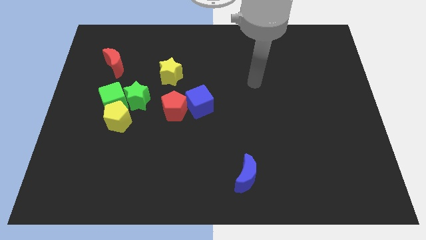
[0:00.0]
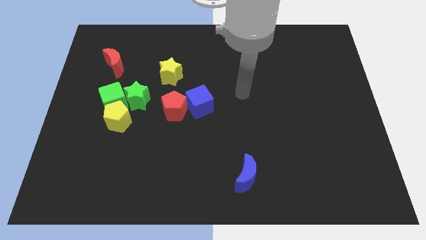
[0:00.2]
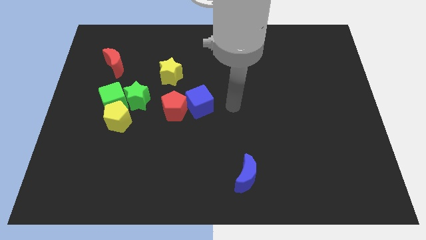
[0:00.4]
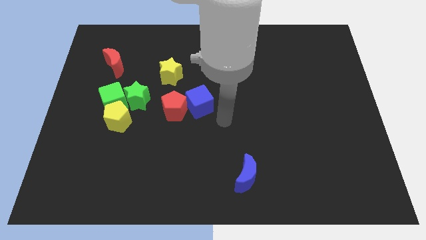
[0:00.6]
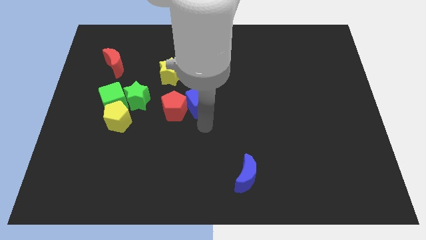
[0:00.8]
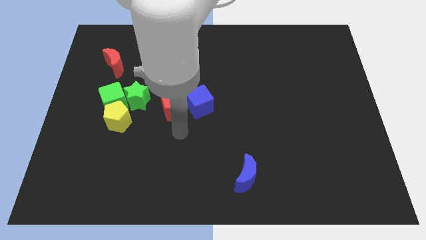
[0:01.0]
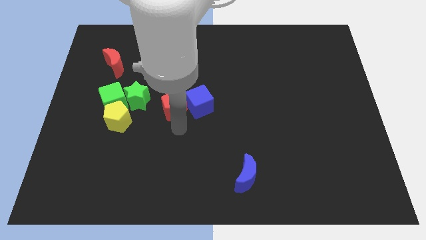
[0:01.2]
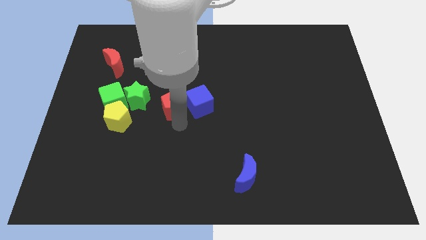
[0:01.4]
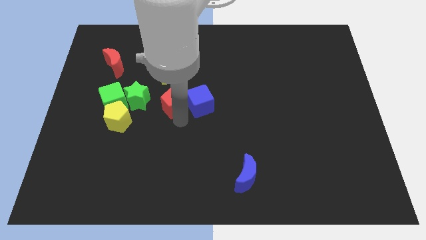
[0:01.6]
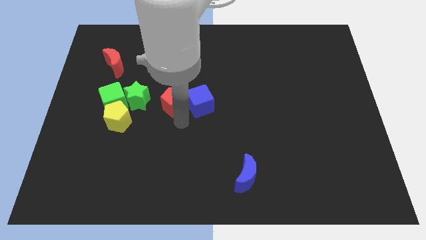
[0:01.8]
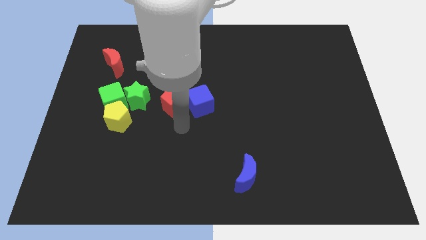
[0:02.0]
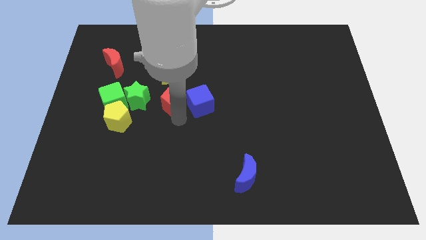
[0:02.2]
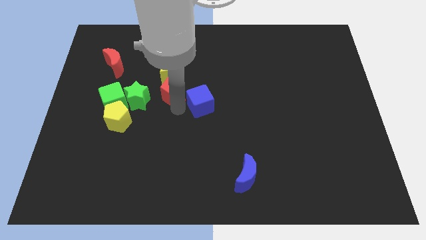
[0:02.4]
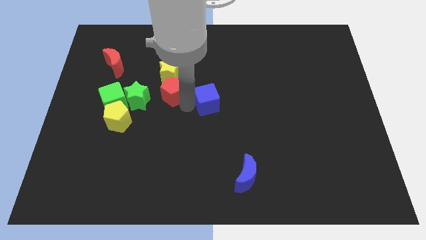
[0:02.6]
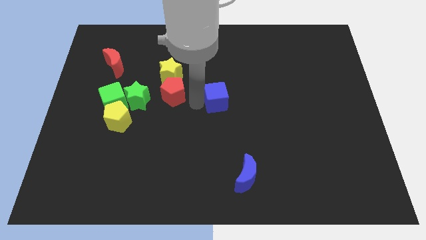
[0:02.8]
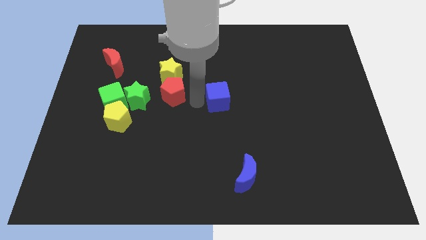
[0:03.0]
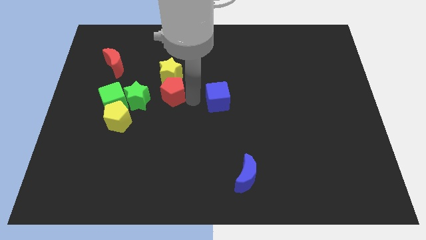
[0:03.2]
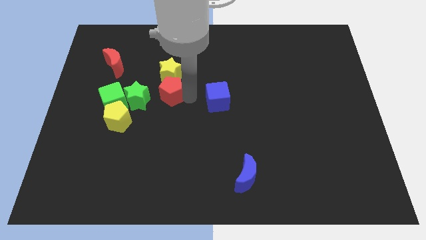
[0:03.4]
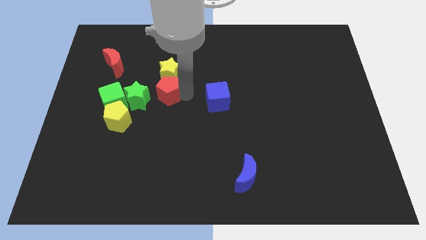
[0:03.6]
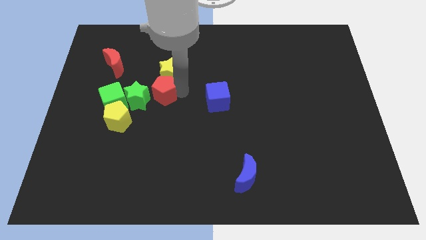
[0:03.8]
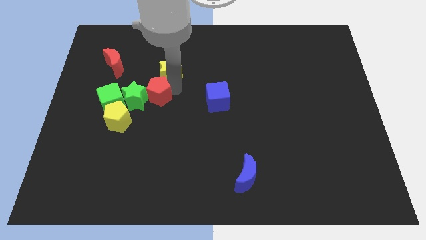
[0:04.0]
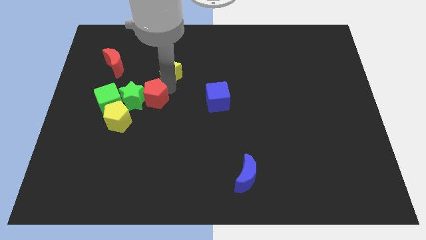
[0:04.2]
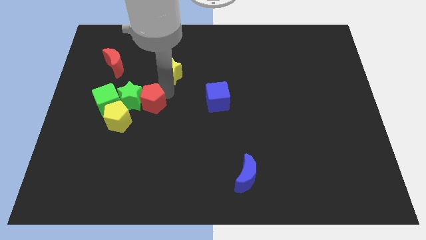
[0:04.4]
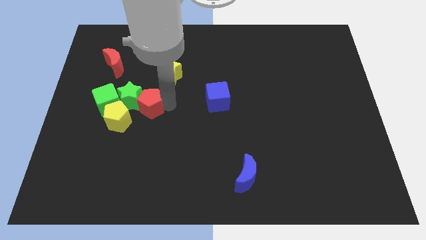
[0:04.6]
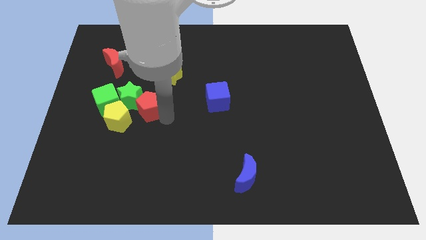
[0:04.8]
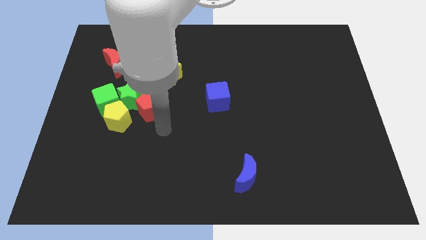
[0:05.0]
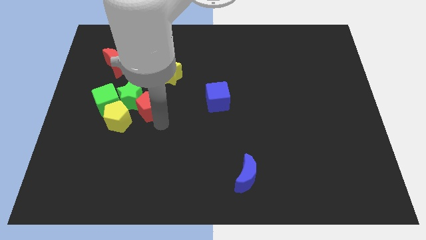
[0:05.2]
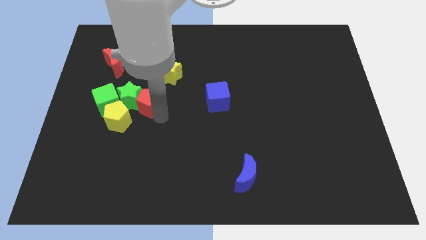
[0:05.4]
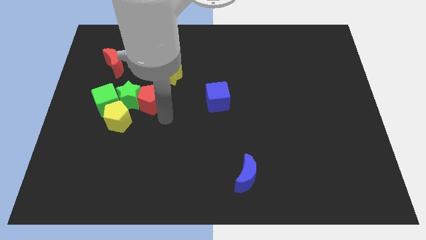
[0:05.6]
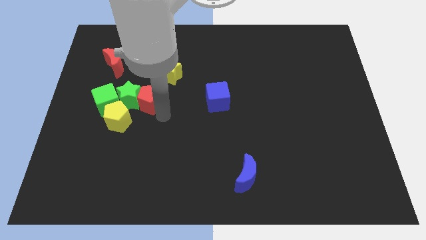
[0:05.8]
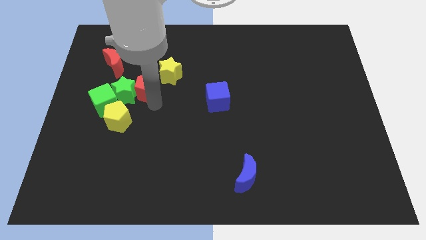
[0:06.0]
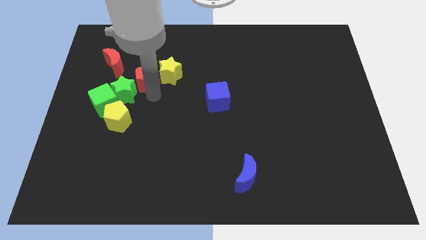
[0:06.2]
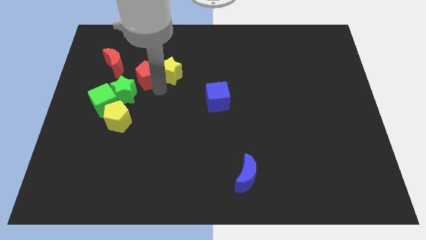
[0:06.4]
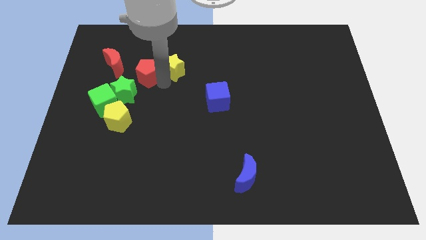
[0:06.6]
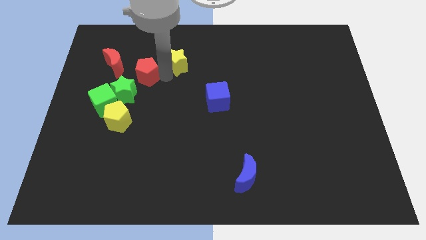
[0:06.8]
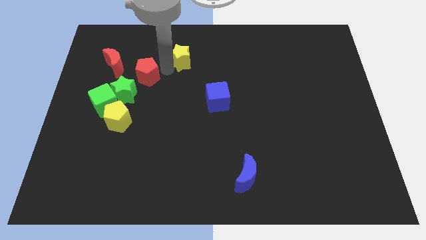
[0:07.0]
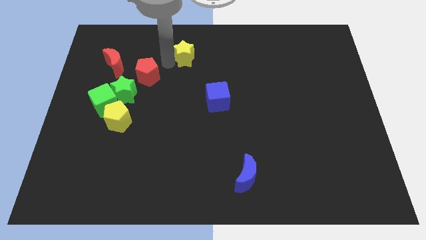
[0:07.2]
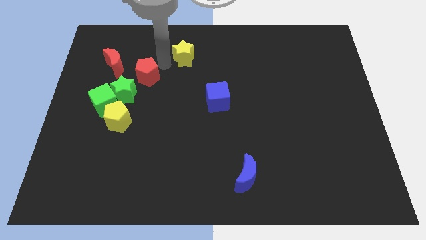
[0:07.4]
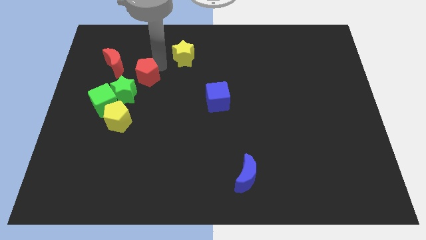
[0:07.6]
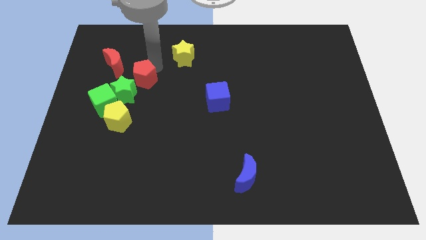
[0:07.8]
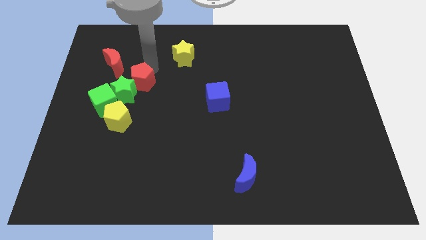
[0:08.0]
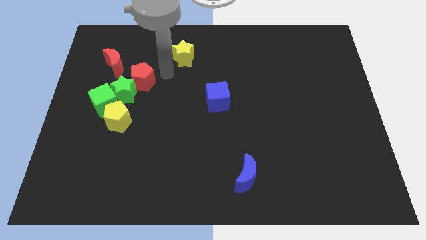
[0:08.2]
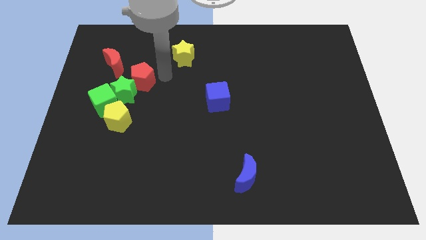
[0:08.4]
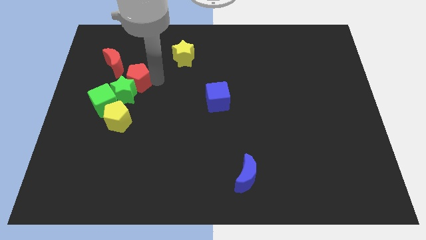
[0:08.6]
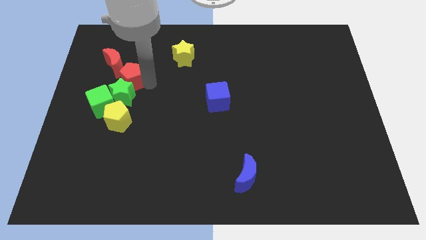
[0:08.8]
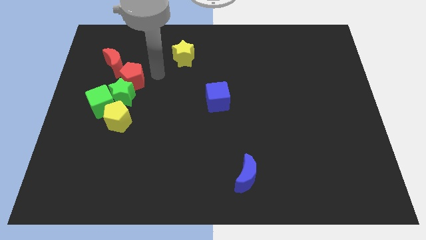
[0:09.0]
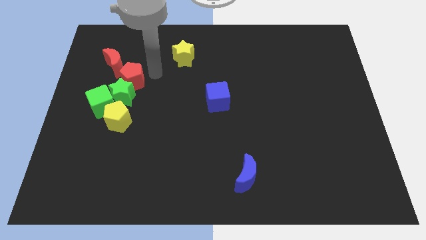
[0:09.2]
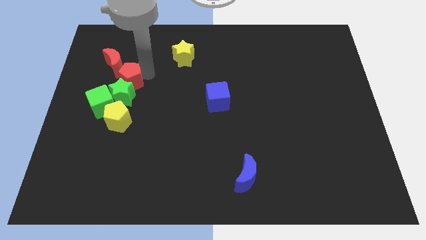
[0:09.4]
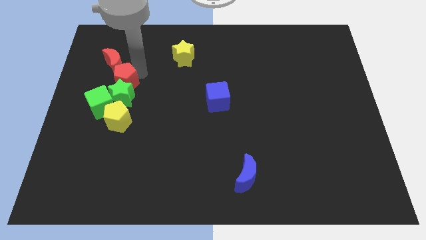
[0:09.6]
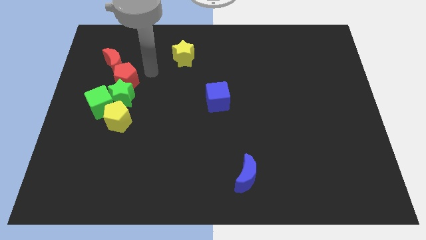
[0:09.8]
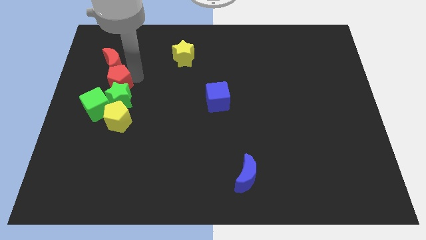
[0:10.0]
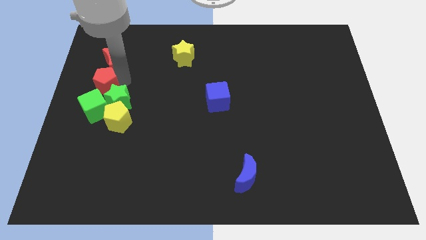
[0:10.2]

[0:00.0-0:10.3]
put the red pentagon to the center left

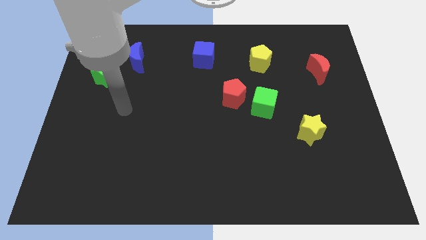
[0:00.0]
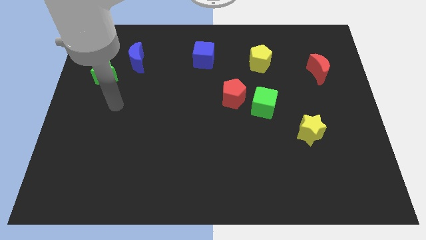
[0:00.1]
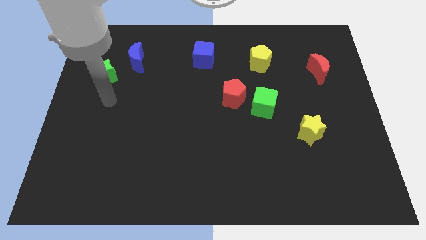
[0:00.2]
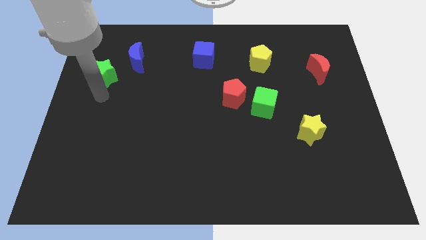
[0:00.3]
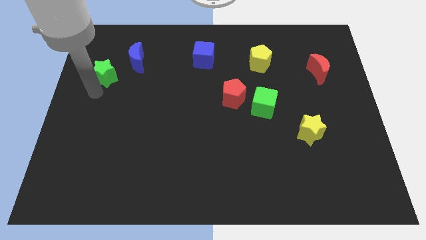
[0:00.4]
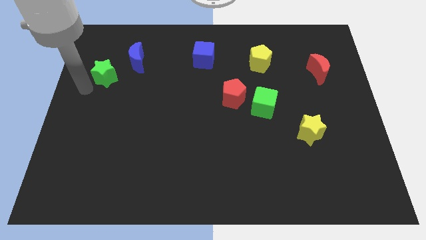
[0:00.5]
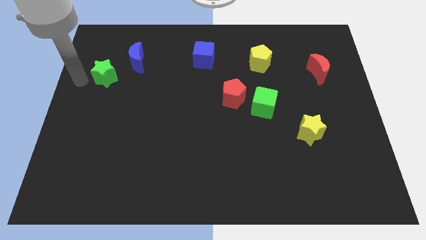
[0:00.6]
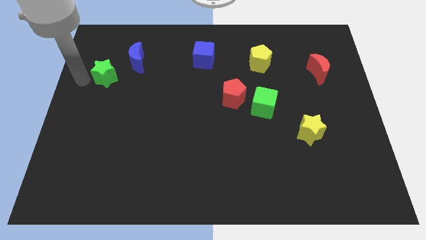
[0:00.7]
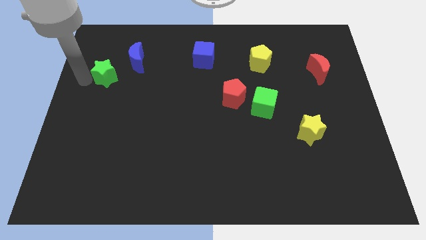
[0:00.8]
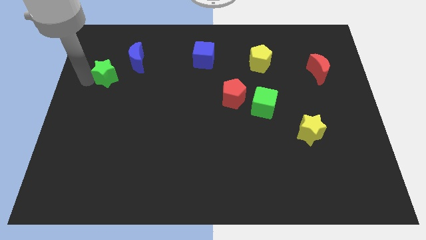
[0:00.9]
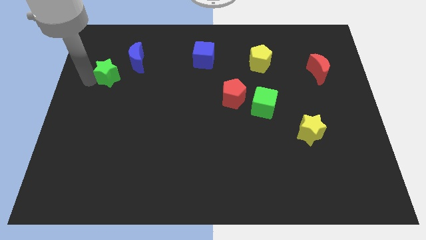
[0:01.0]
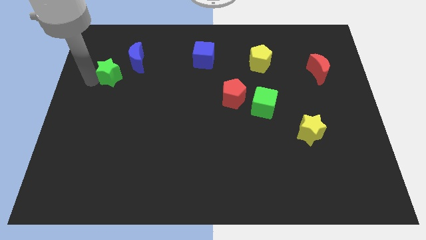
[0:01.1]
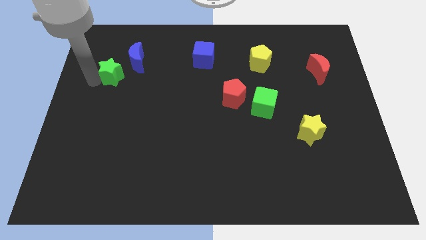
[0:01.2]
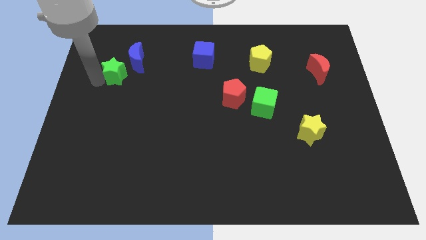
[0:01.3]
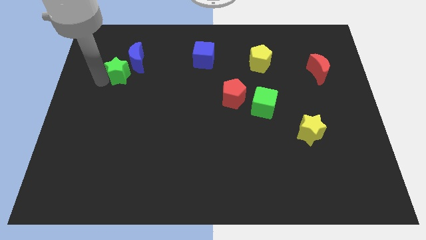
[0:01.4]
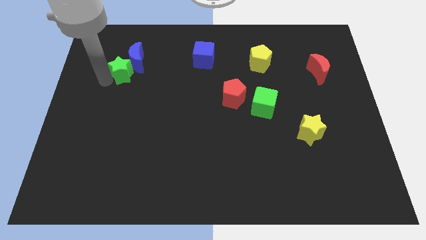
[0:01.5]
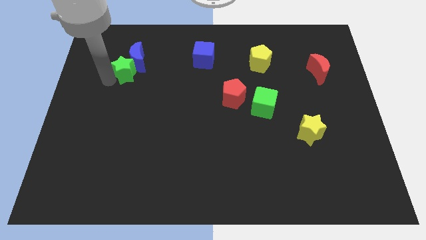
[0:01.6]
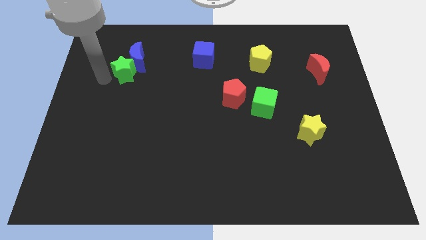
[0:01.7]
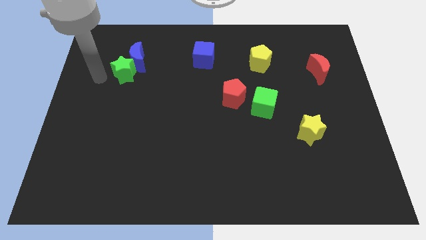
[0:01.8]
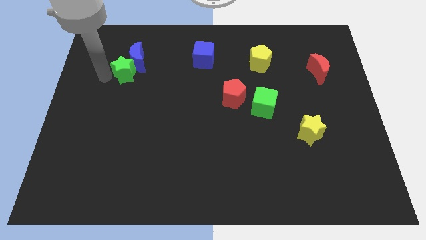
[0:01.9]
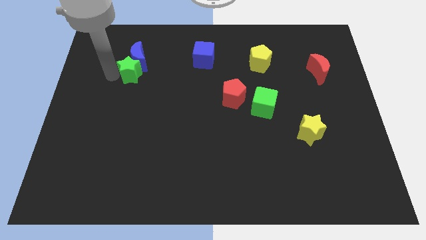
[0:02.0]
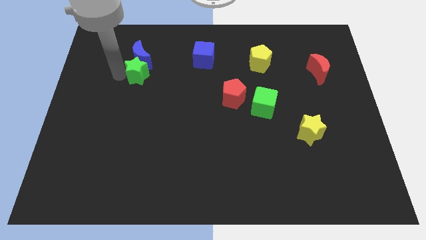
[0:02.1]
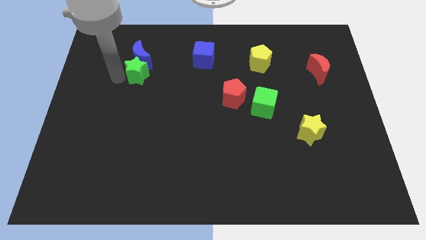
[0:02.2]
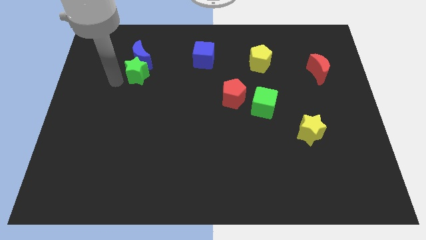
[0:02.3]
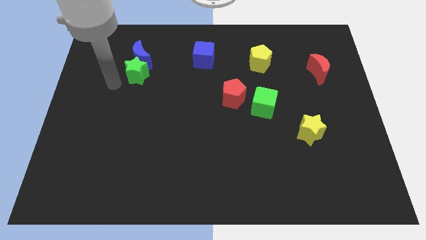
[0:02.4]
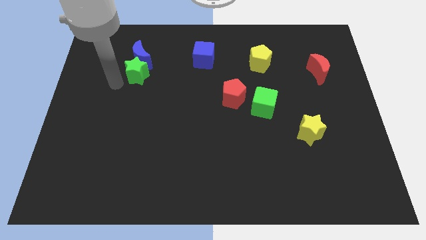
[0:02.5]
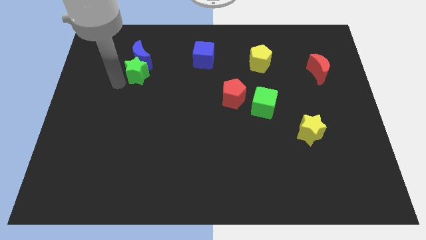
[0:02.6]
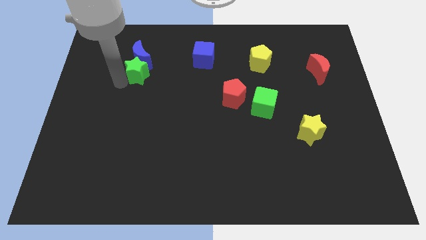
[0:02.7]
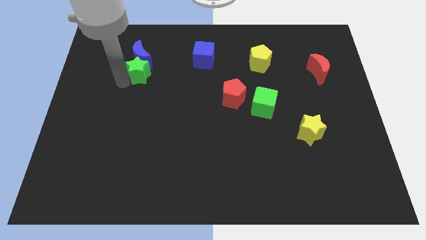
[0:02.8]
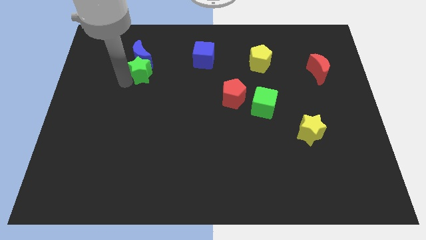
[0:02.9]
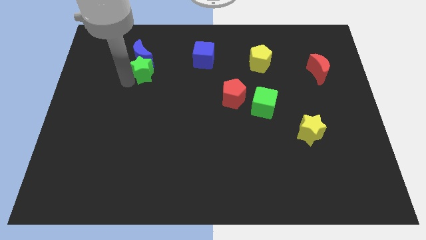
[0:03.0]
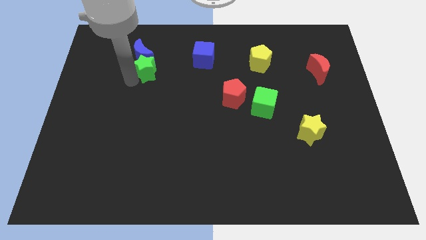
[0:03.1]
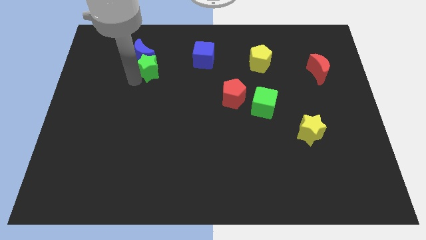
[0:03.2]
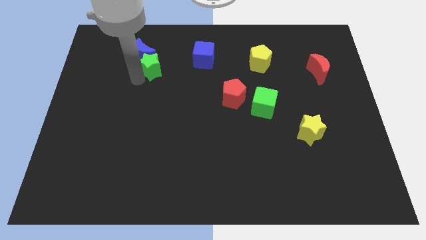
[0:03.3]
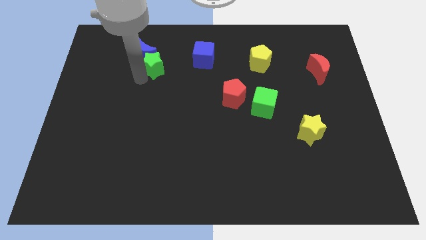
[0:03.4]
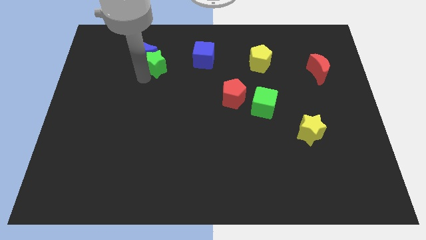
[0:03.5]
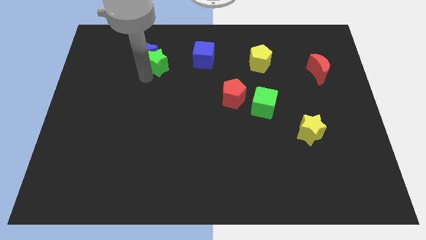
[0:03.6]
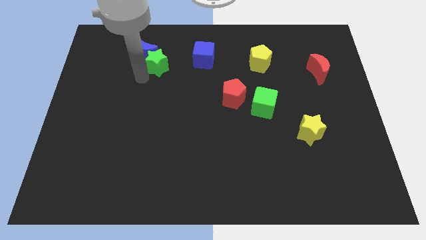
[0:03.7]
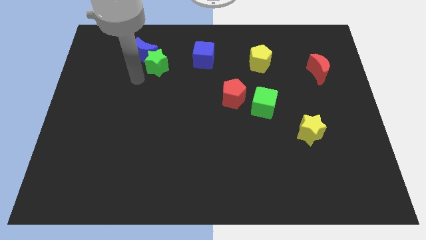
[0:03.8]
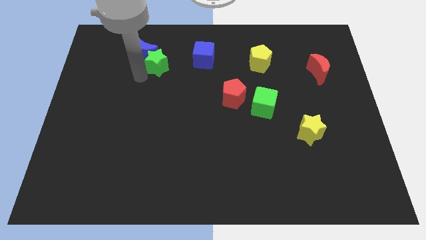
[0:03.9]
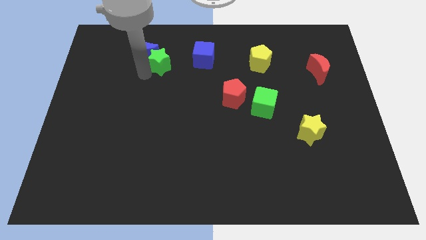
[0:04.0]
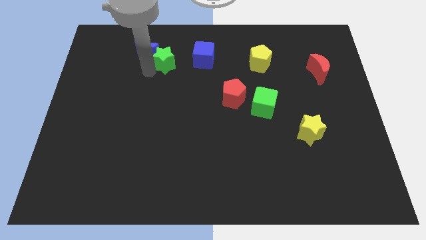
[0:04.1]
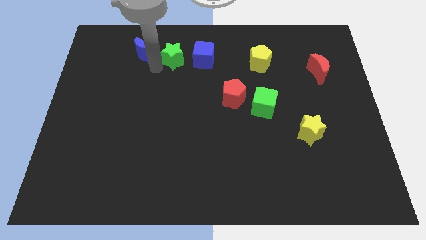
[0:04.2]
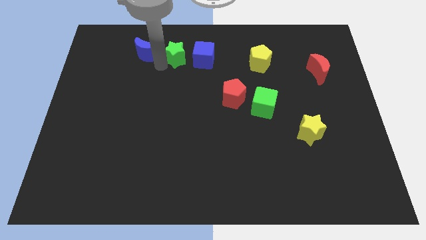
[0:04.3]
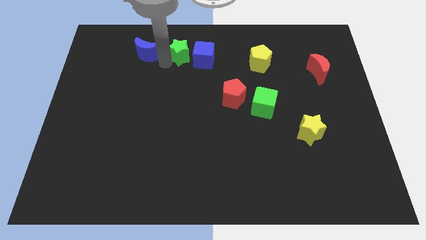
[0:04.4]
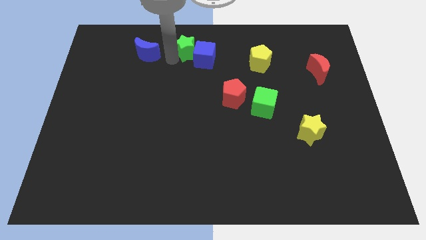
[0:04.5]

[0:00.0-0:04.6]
put the green star to the top
